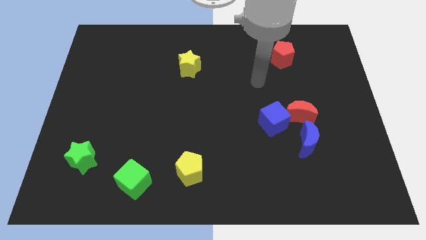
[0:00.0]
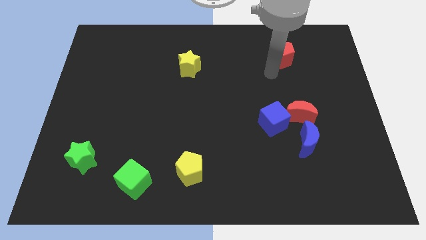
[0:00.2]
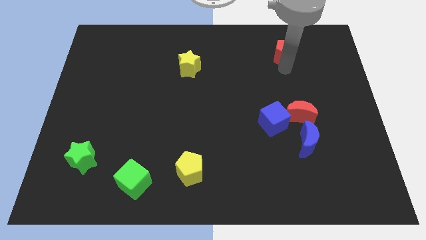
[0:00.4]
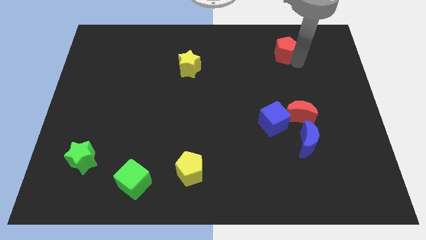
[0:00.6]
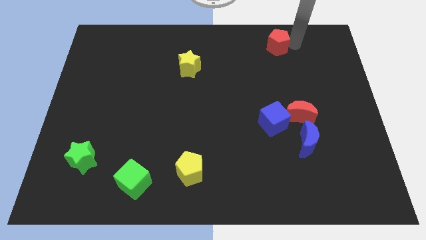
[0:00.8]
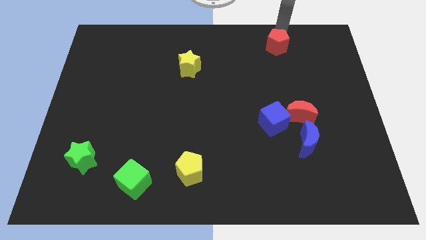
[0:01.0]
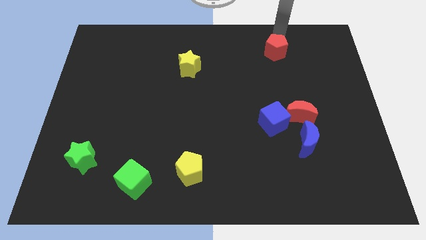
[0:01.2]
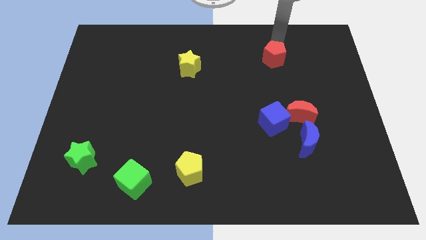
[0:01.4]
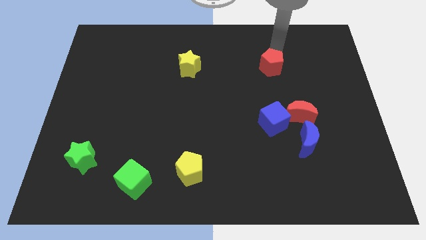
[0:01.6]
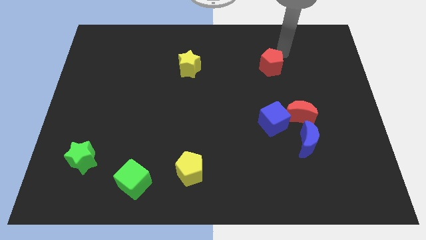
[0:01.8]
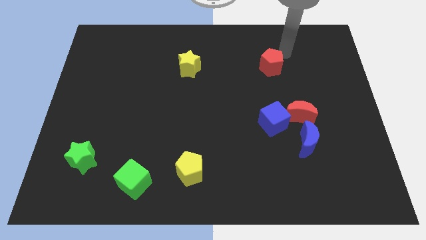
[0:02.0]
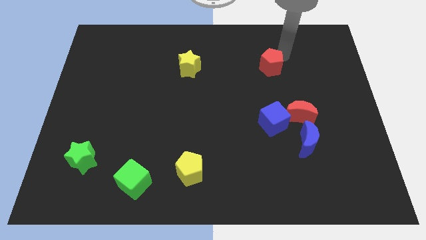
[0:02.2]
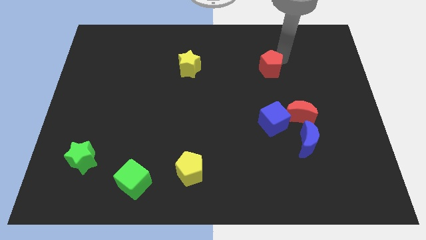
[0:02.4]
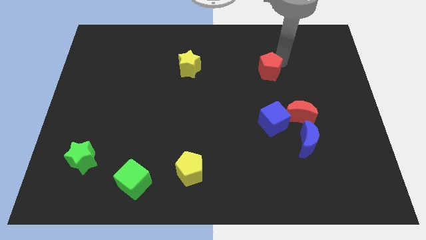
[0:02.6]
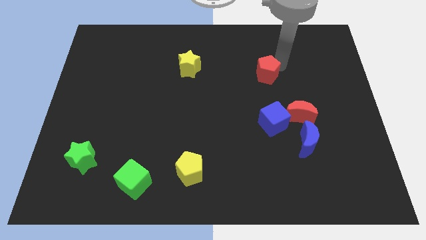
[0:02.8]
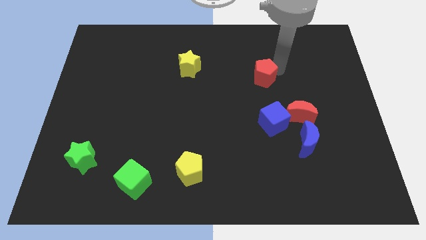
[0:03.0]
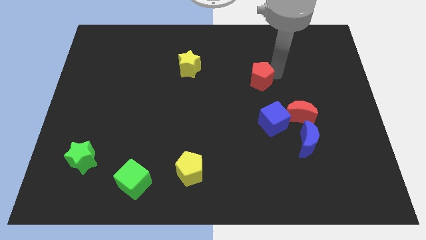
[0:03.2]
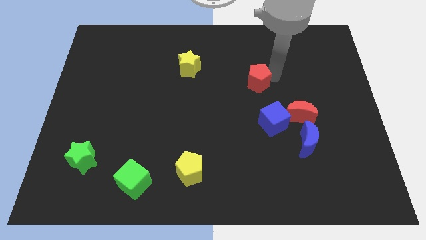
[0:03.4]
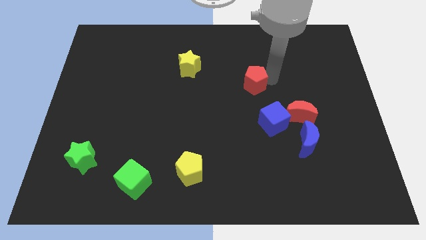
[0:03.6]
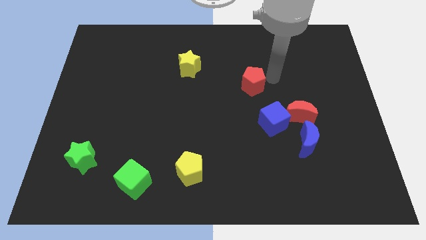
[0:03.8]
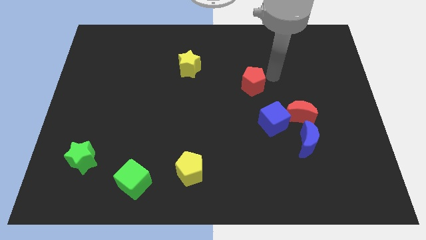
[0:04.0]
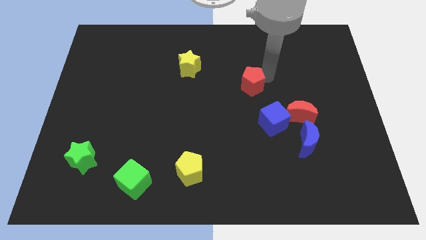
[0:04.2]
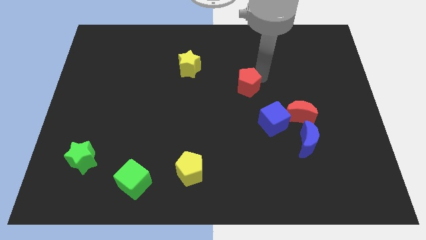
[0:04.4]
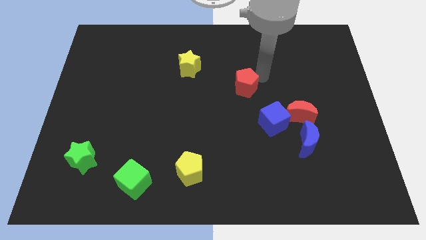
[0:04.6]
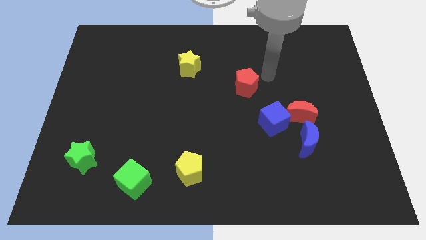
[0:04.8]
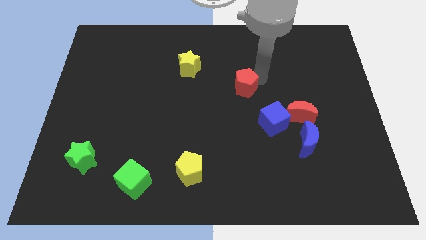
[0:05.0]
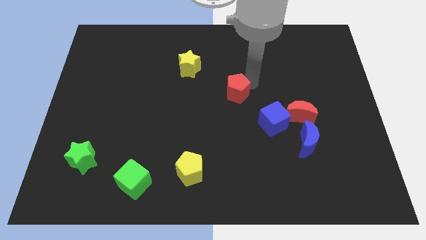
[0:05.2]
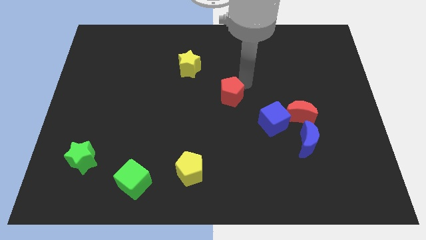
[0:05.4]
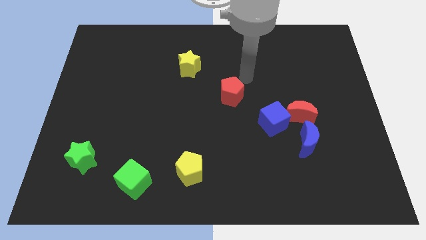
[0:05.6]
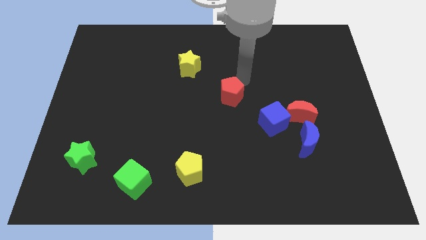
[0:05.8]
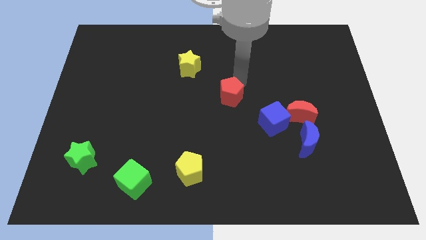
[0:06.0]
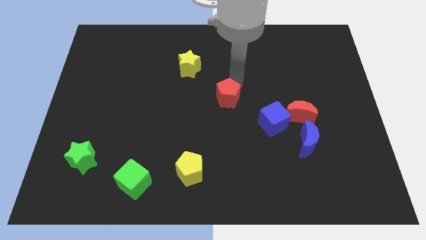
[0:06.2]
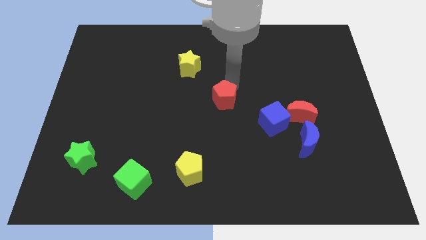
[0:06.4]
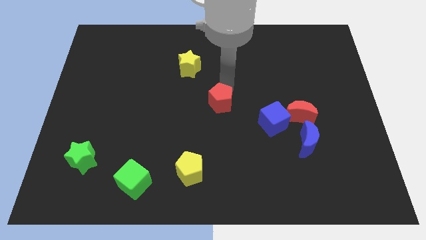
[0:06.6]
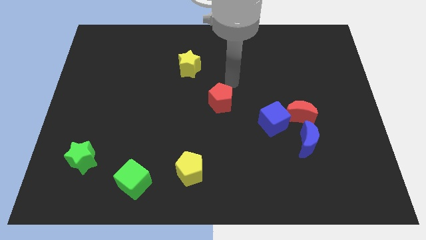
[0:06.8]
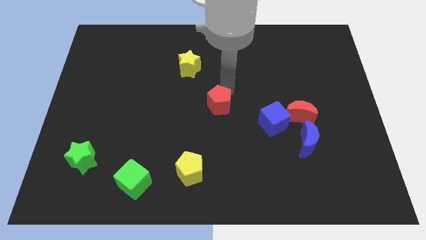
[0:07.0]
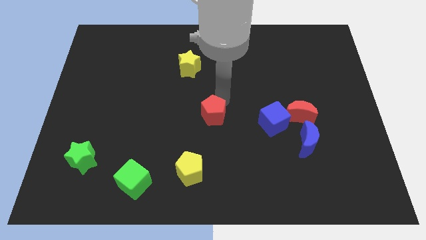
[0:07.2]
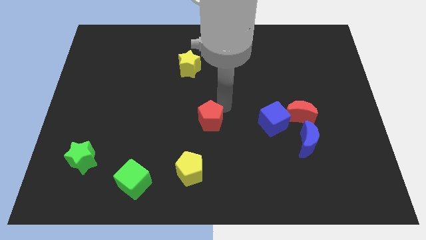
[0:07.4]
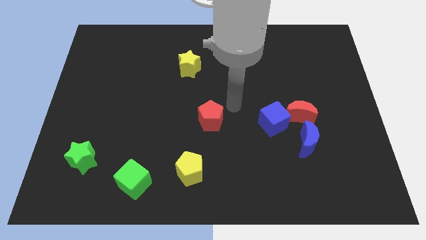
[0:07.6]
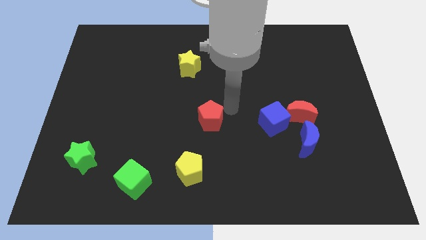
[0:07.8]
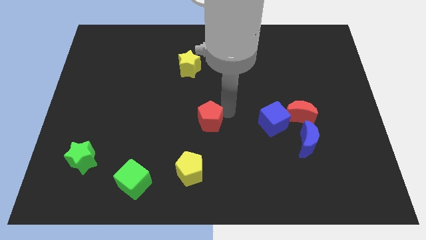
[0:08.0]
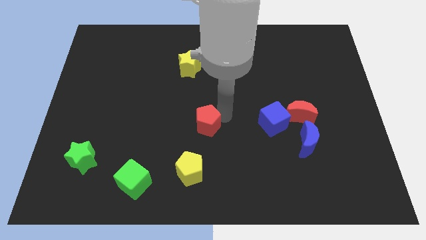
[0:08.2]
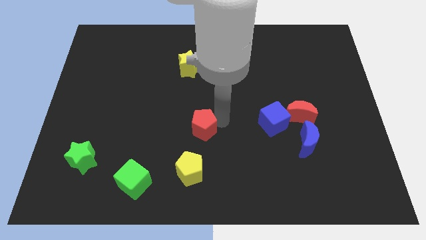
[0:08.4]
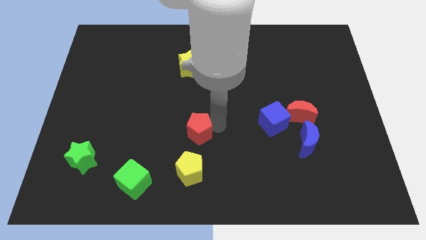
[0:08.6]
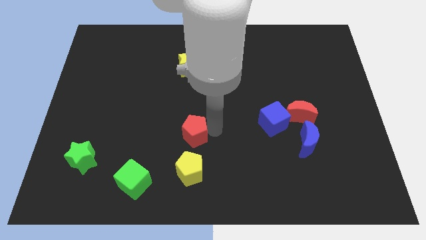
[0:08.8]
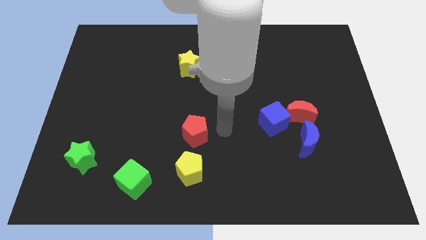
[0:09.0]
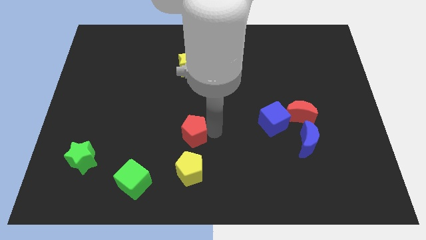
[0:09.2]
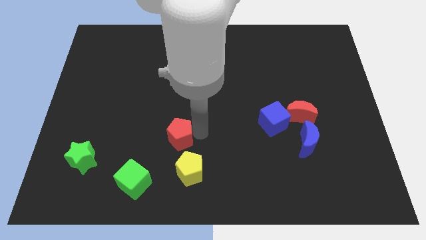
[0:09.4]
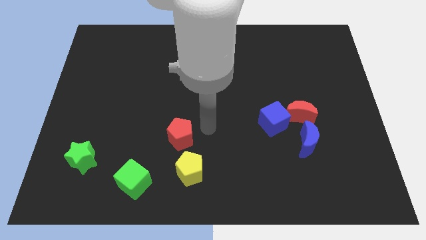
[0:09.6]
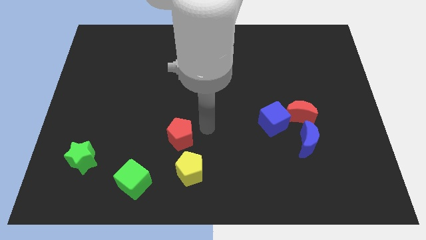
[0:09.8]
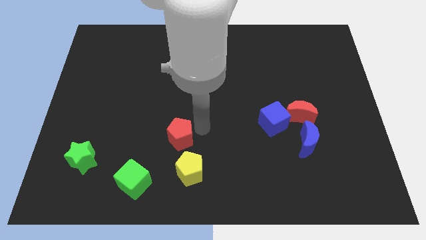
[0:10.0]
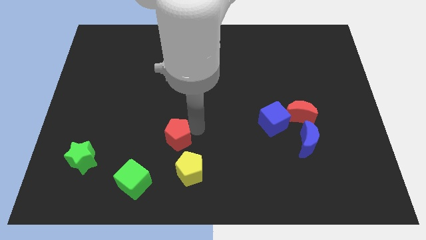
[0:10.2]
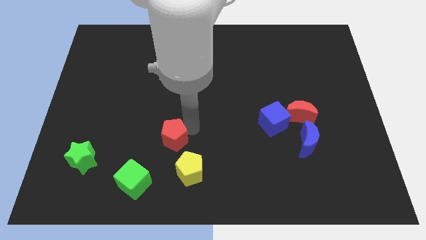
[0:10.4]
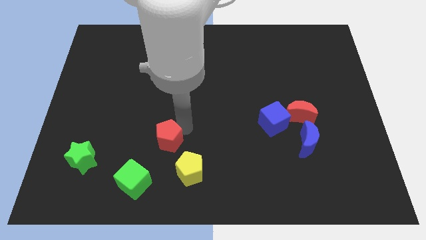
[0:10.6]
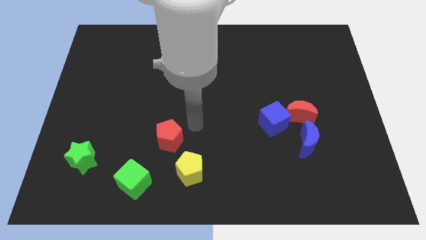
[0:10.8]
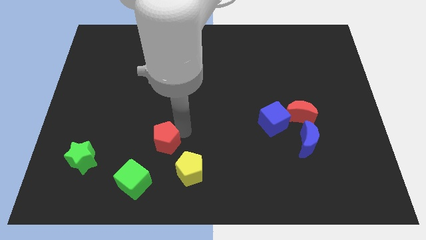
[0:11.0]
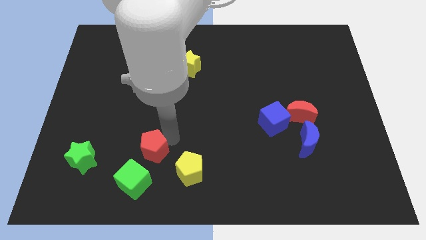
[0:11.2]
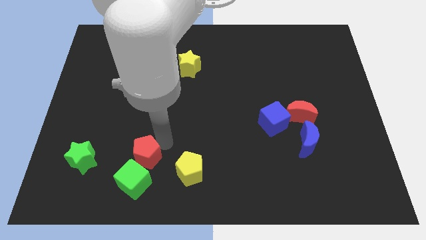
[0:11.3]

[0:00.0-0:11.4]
move the red pentagon left of the yellow pentagon

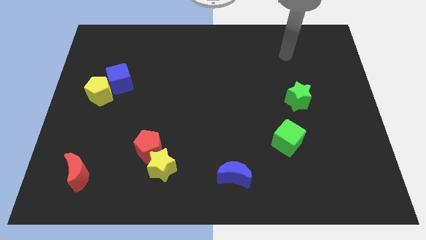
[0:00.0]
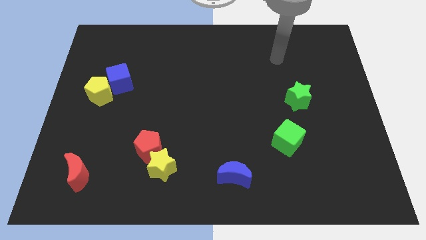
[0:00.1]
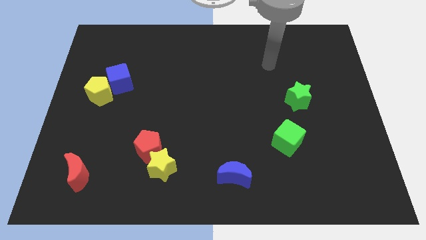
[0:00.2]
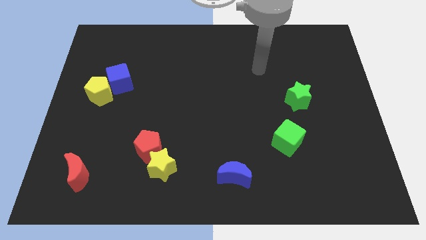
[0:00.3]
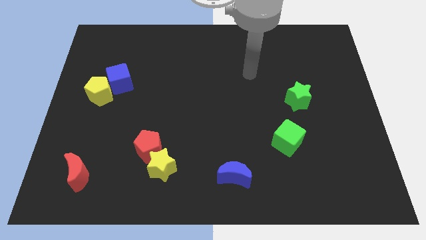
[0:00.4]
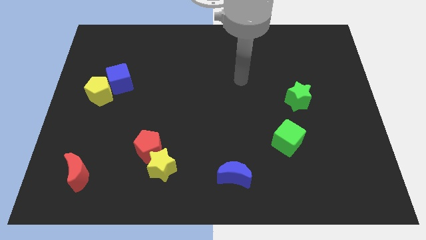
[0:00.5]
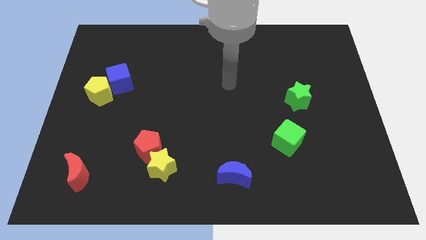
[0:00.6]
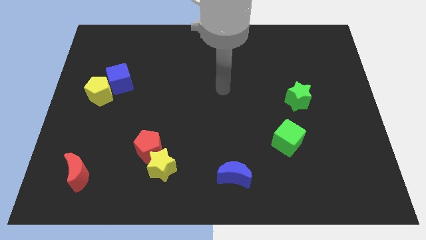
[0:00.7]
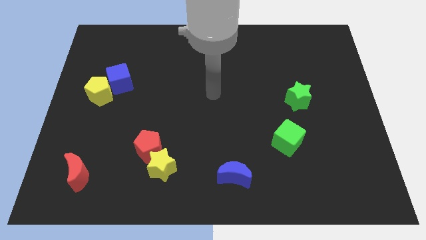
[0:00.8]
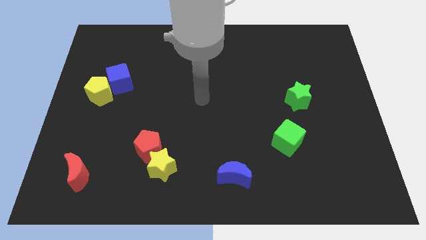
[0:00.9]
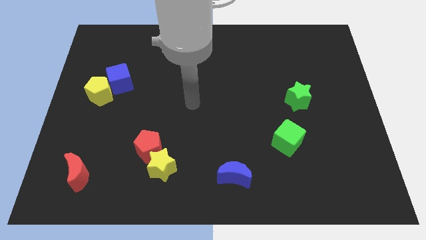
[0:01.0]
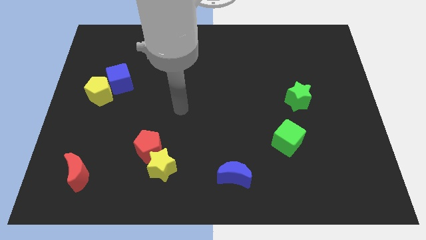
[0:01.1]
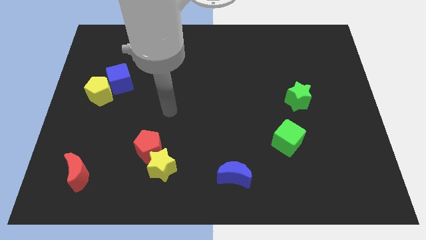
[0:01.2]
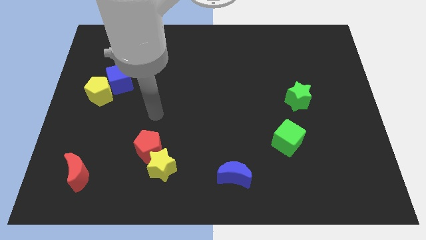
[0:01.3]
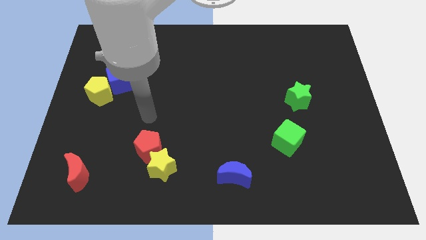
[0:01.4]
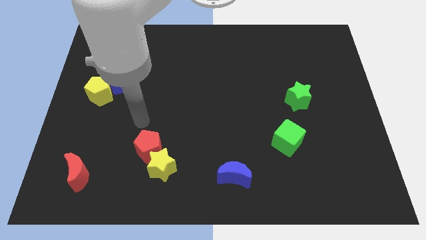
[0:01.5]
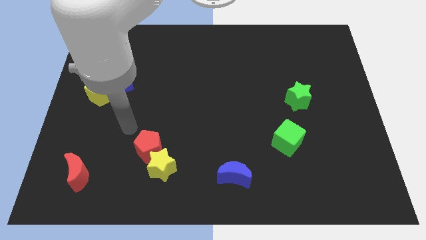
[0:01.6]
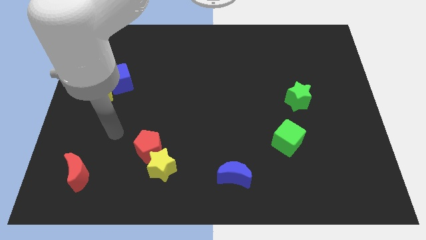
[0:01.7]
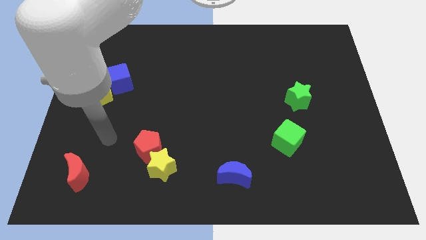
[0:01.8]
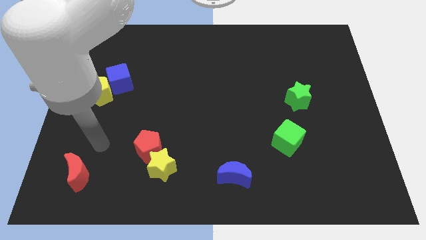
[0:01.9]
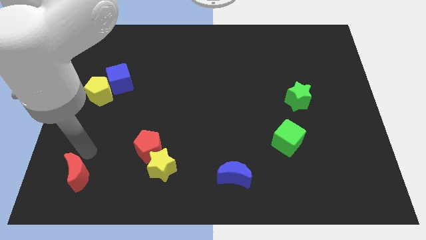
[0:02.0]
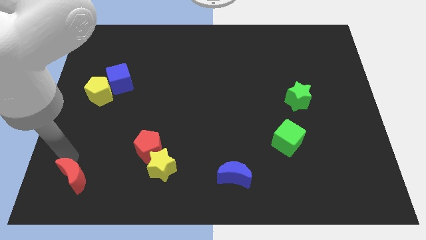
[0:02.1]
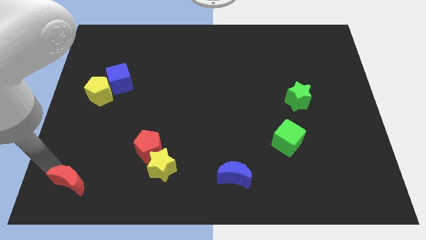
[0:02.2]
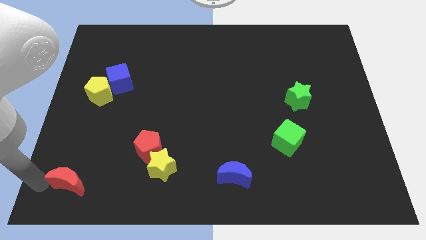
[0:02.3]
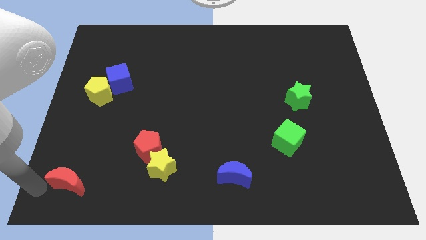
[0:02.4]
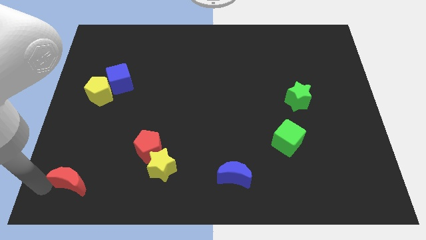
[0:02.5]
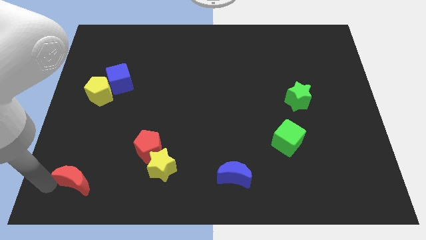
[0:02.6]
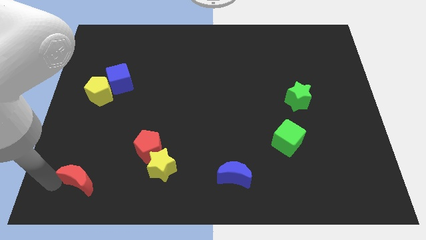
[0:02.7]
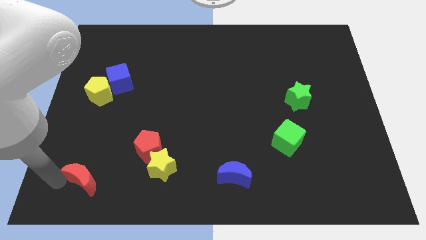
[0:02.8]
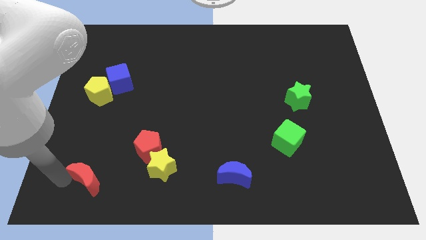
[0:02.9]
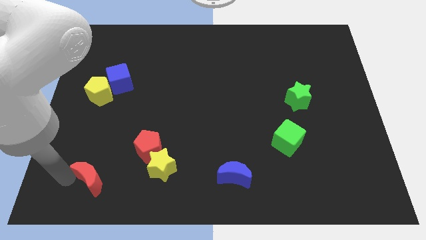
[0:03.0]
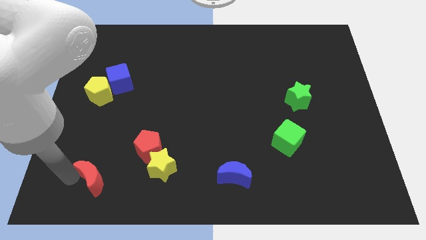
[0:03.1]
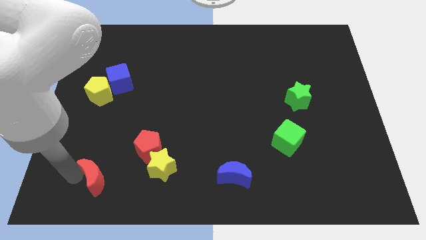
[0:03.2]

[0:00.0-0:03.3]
move the red moon diagonally down and to the left of the red pentagon
